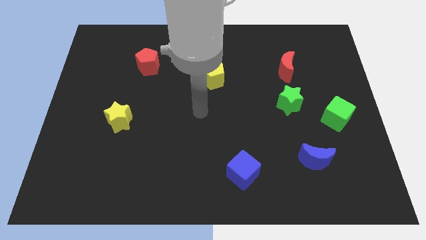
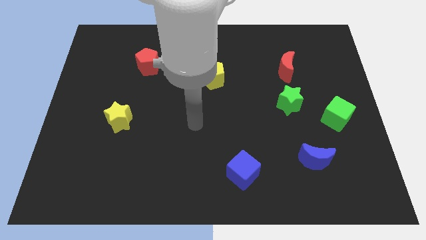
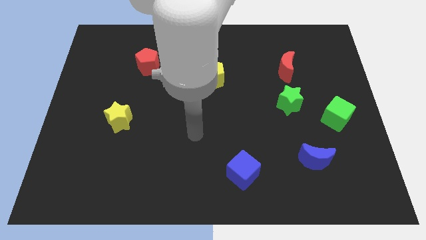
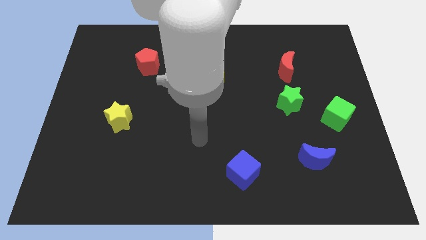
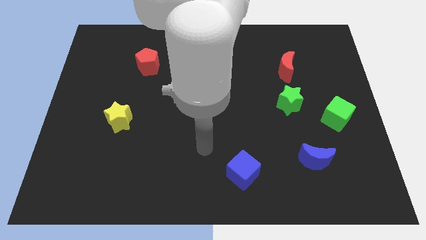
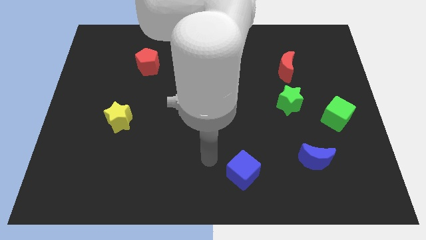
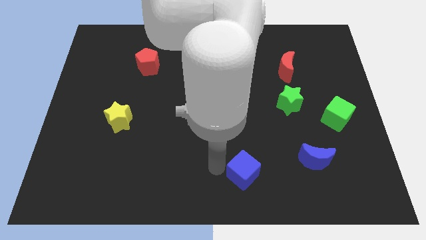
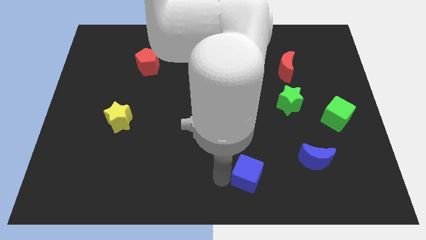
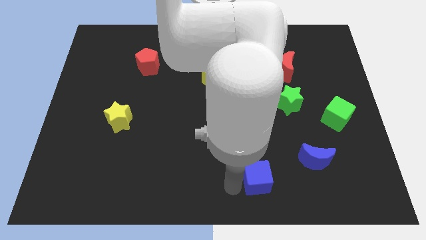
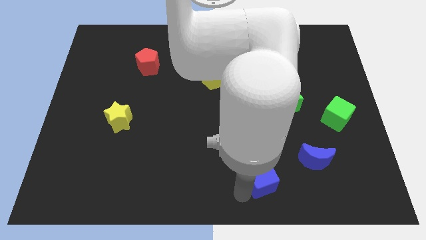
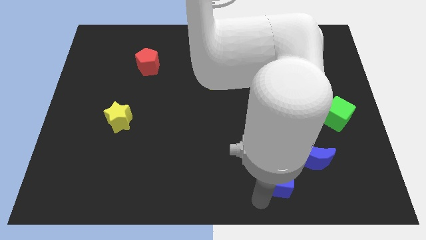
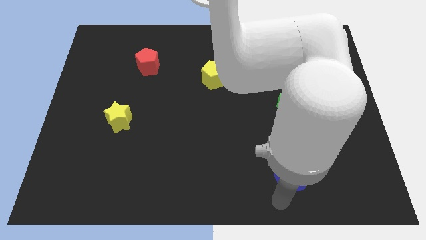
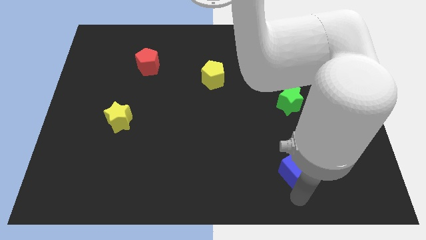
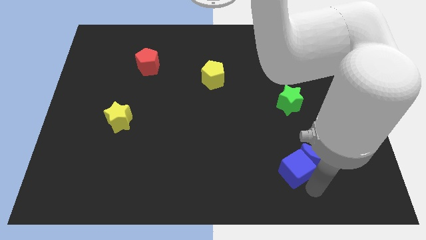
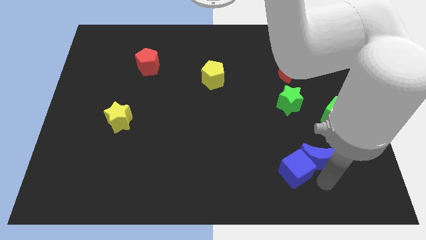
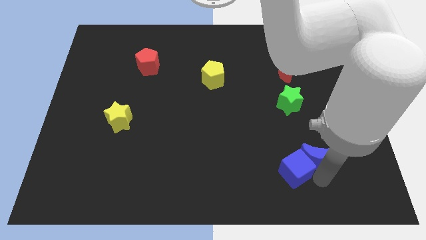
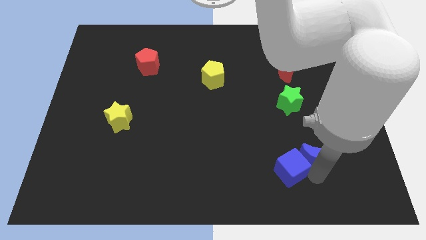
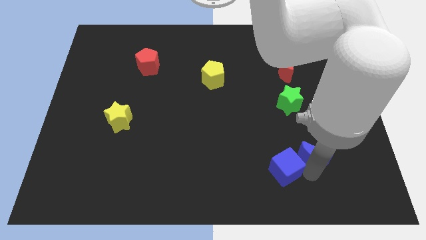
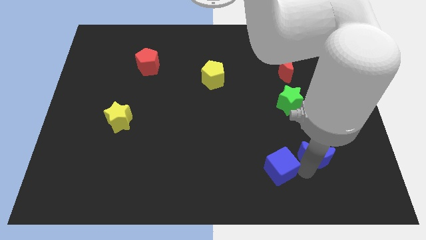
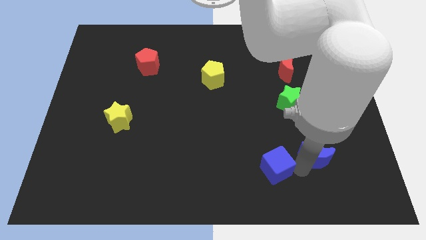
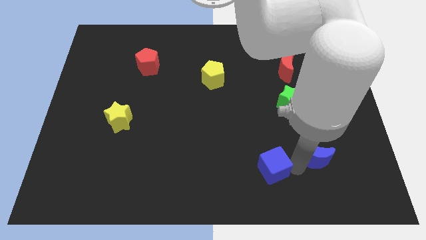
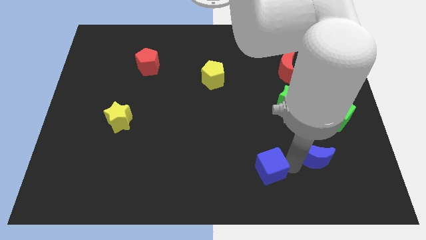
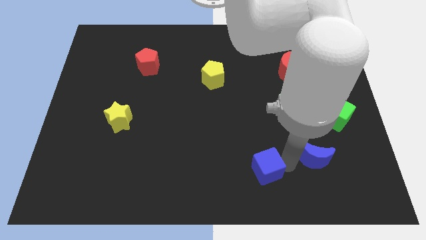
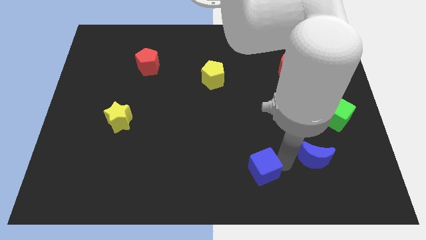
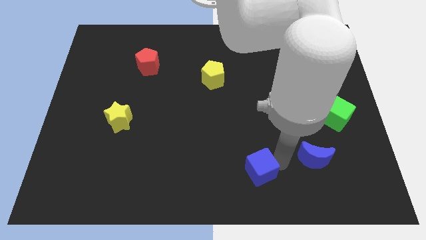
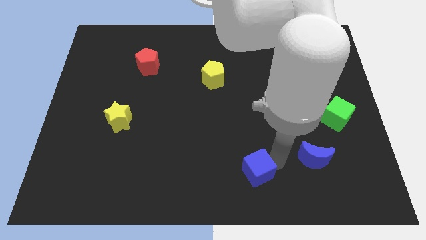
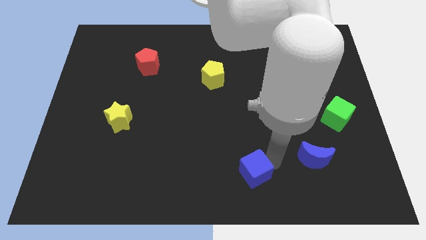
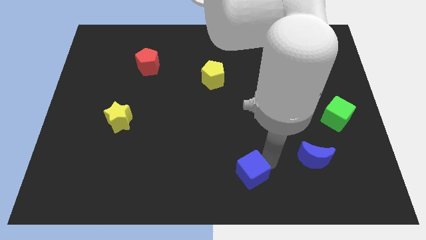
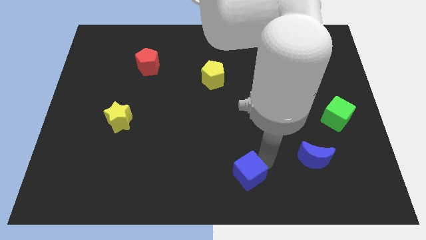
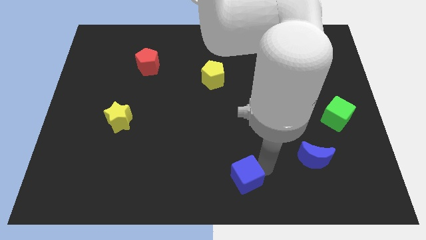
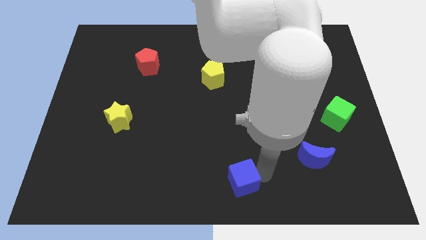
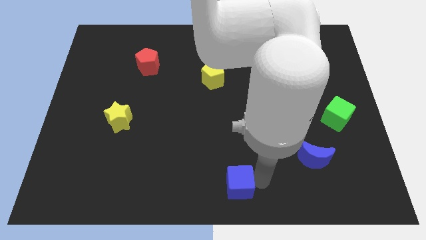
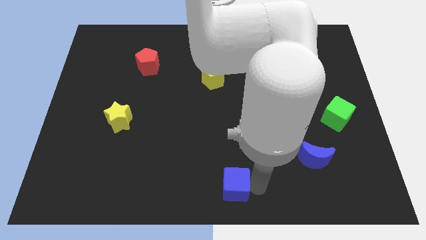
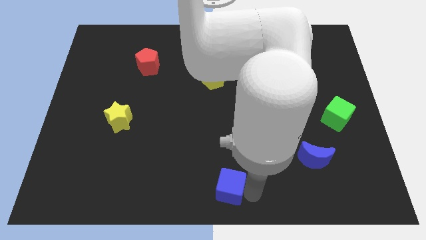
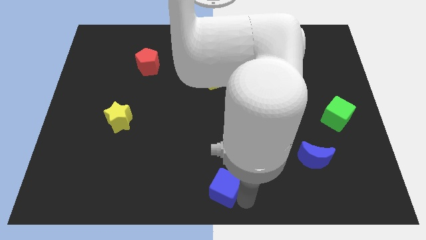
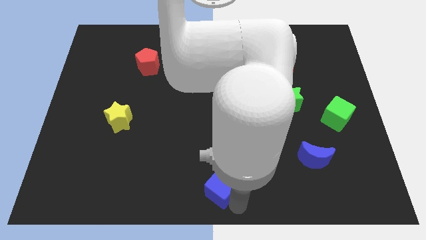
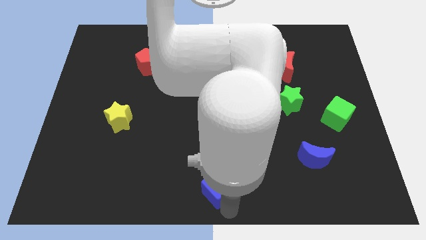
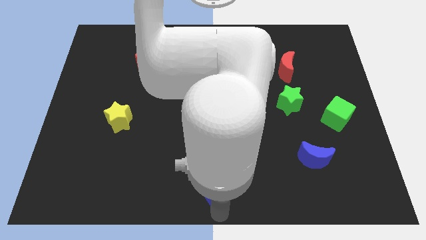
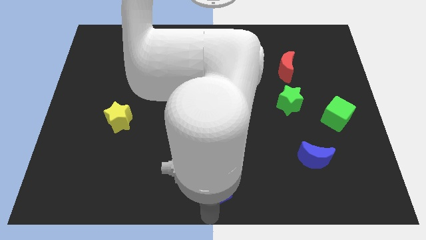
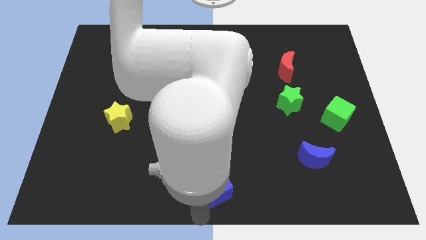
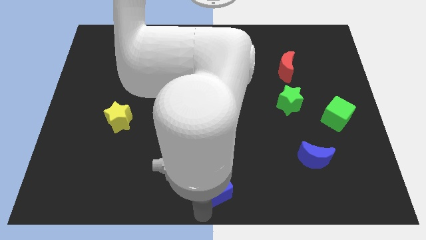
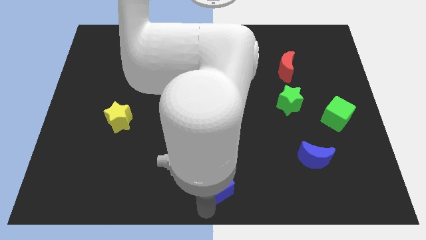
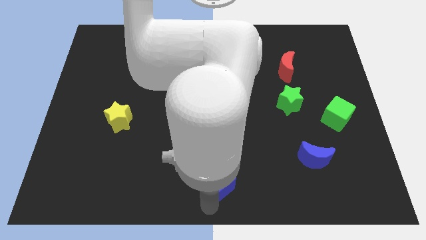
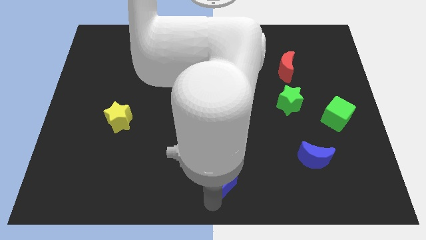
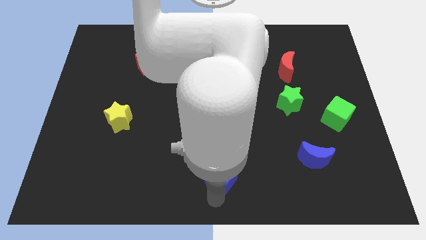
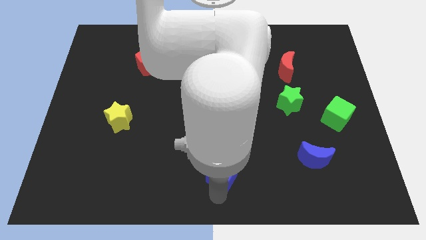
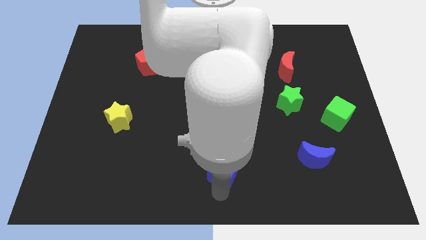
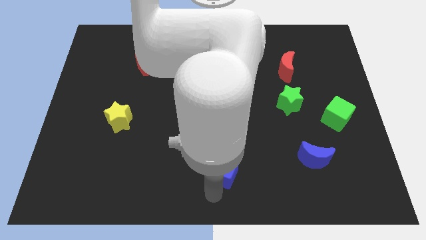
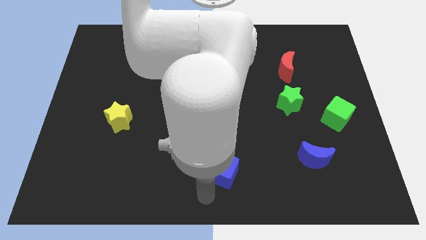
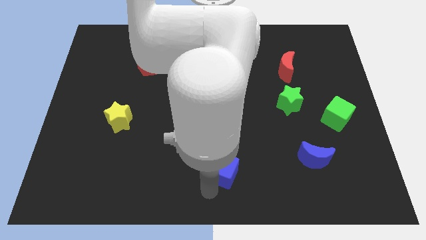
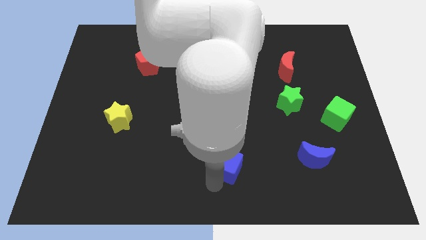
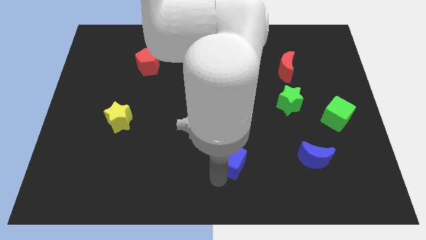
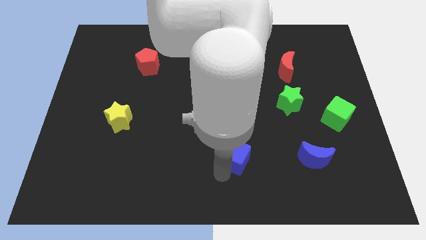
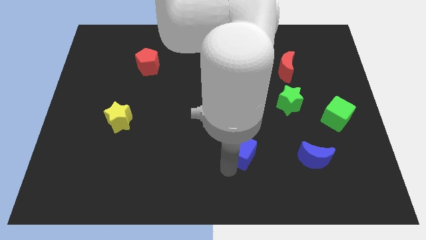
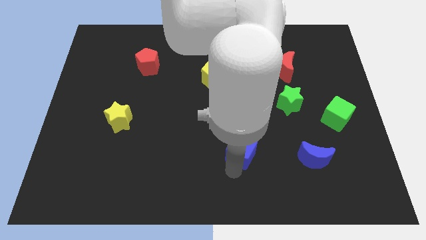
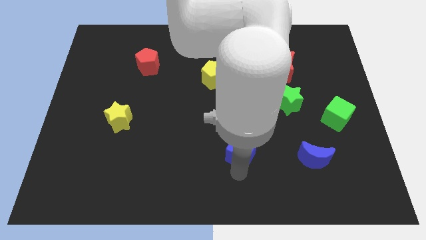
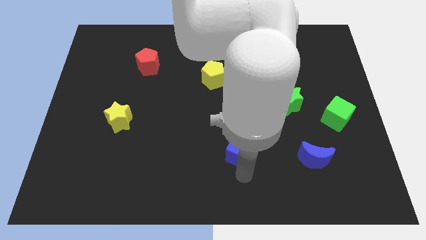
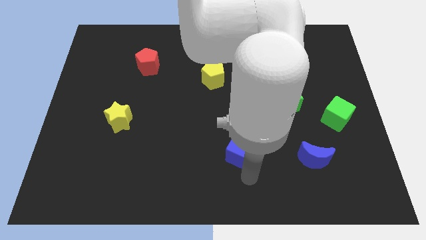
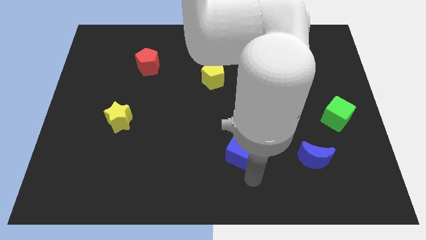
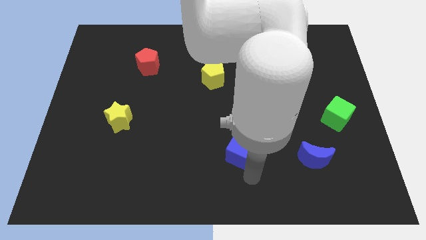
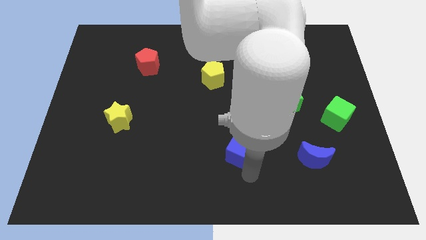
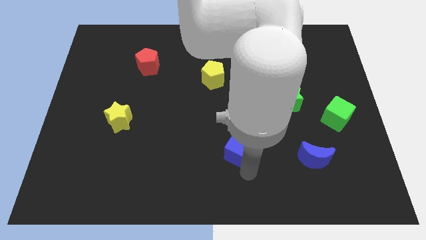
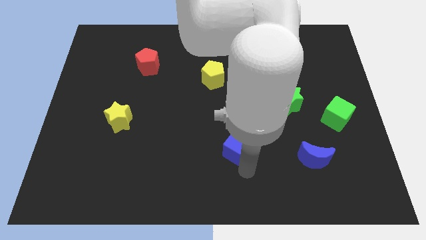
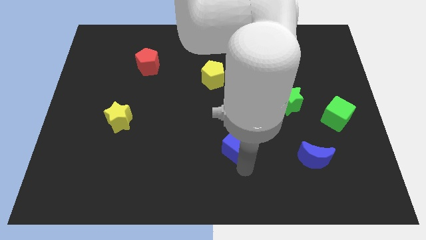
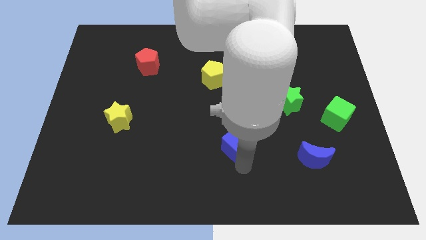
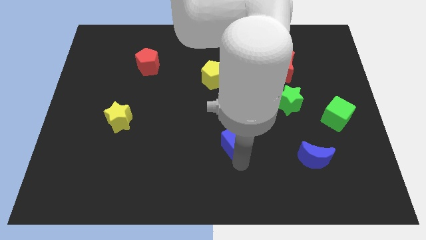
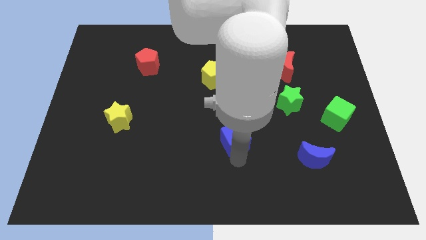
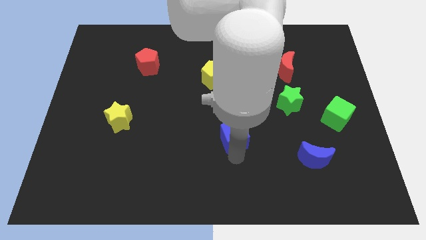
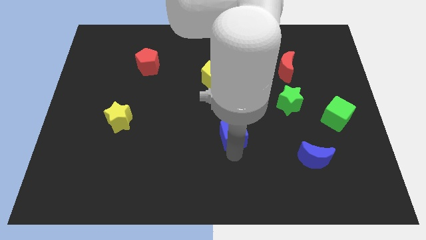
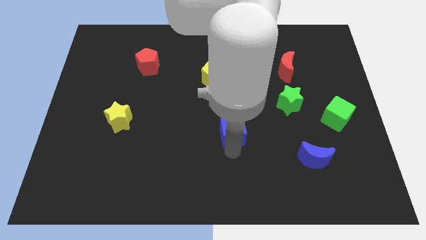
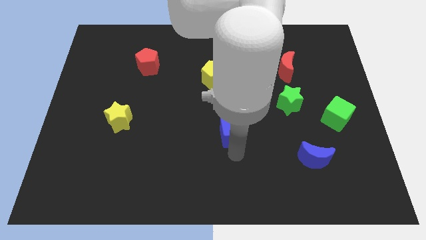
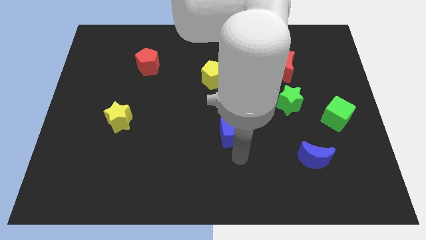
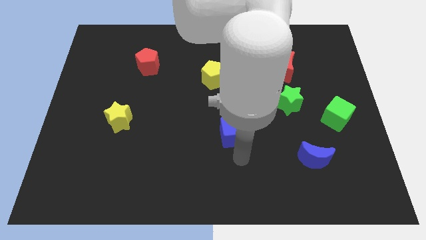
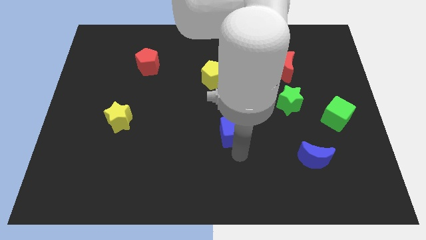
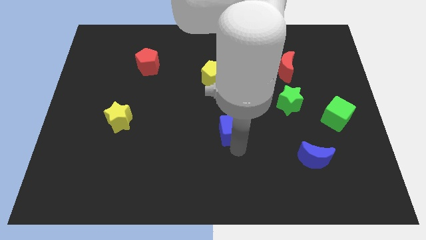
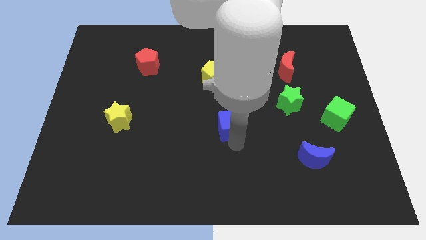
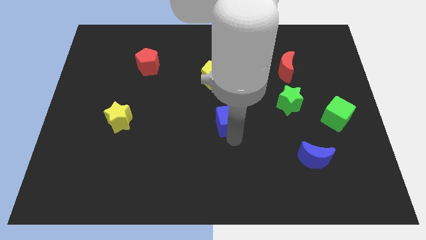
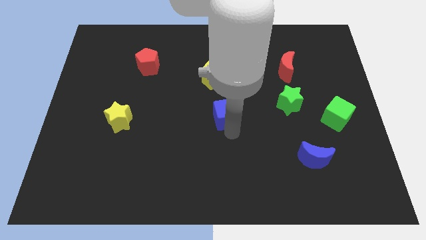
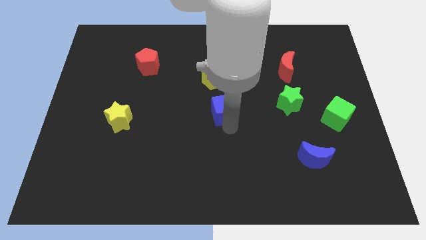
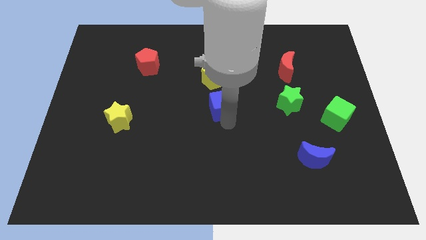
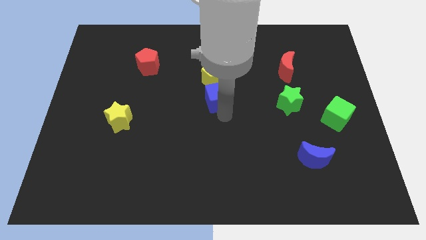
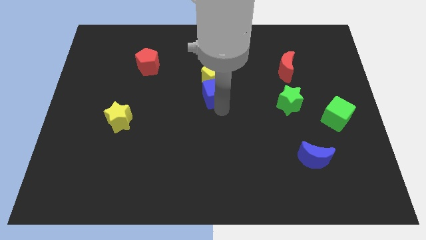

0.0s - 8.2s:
put the blue cube close to the yellow pentagon
